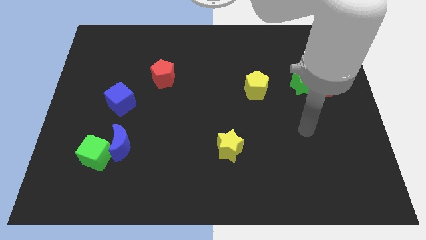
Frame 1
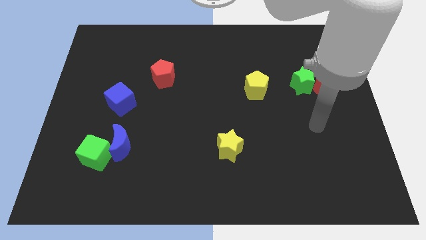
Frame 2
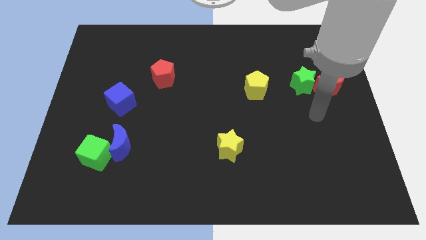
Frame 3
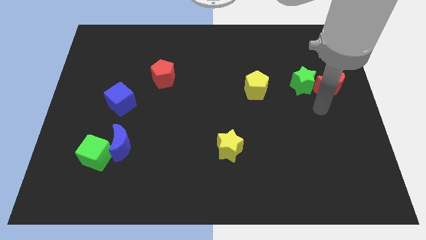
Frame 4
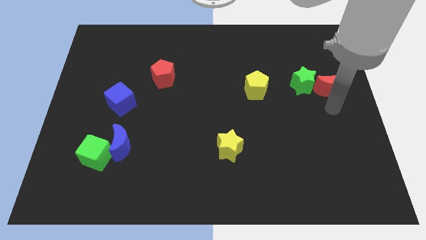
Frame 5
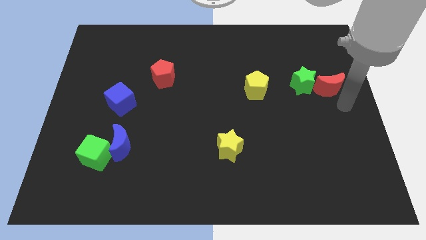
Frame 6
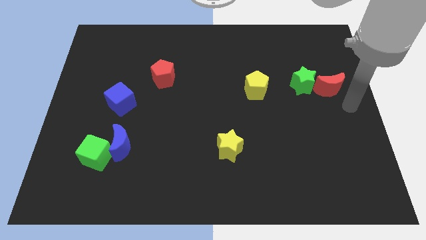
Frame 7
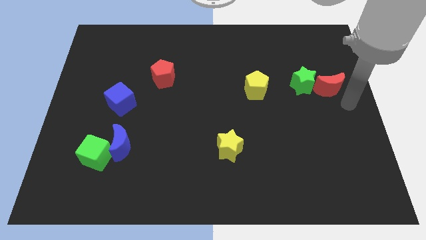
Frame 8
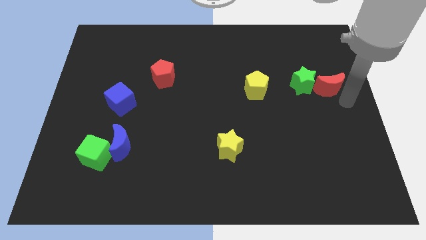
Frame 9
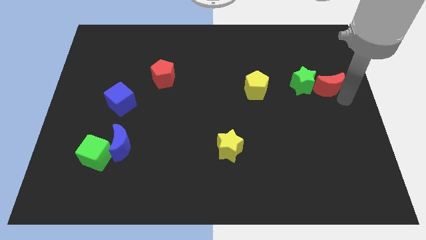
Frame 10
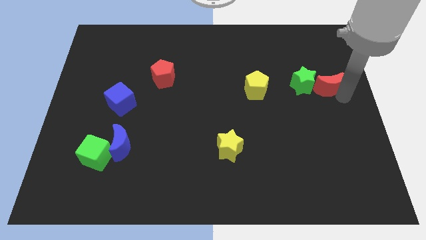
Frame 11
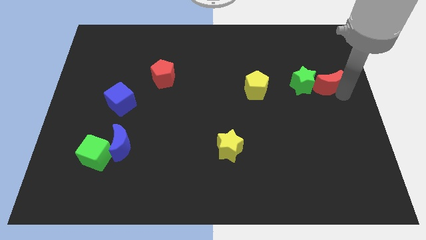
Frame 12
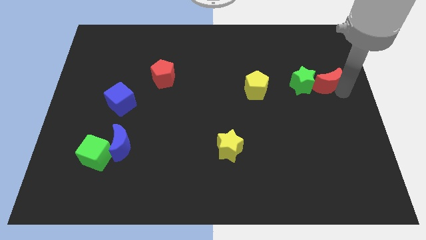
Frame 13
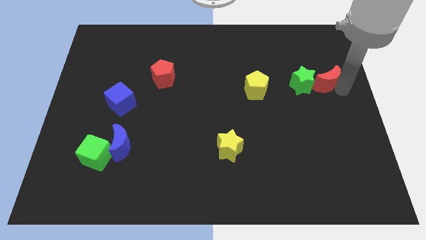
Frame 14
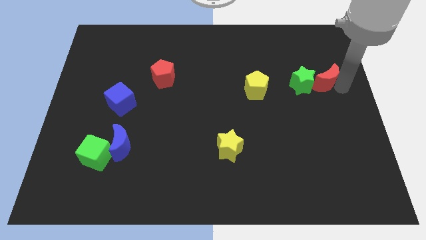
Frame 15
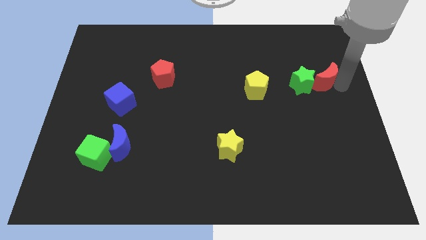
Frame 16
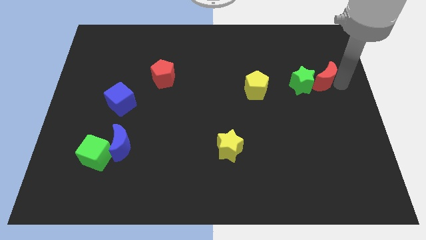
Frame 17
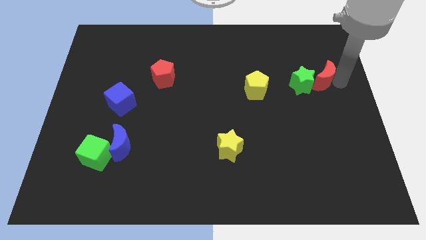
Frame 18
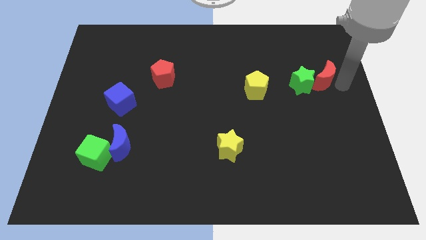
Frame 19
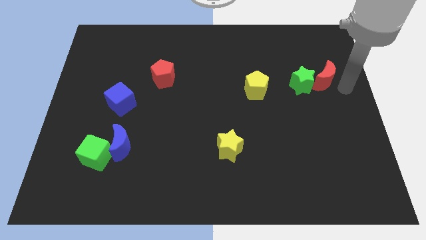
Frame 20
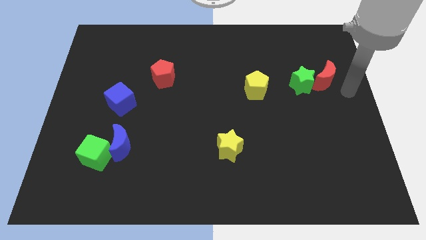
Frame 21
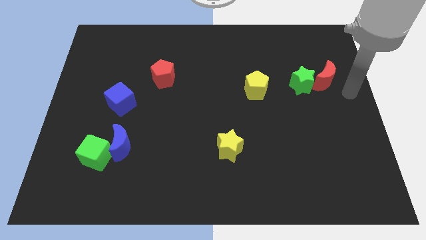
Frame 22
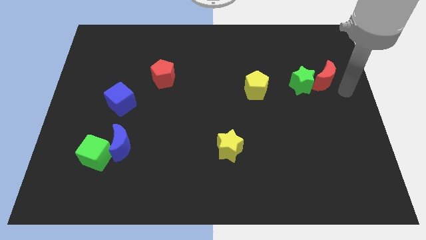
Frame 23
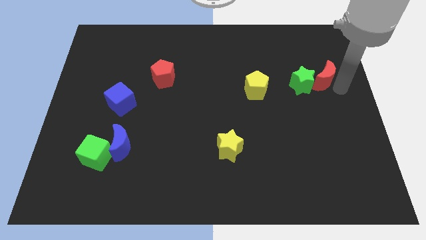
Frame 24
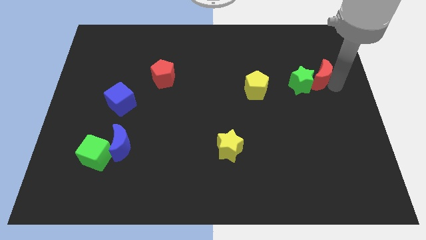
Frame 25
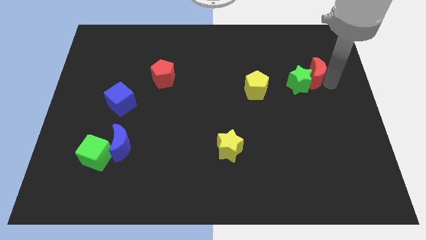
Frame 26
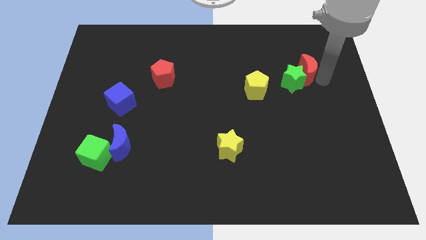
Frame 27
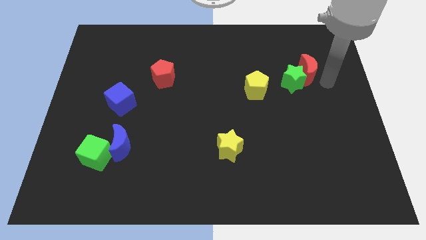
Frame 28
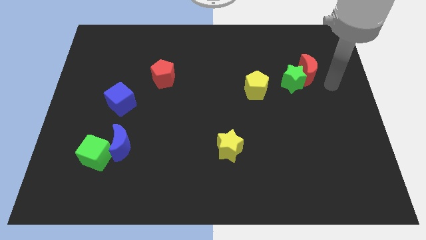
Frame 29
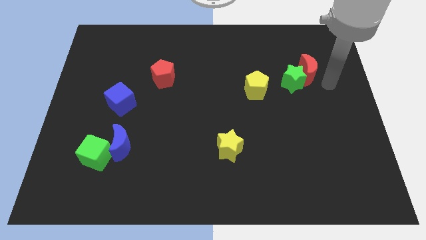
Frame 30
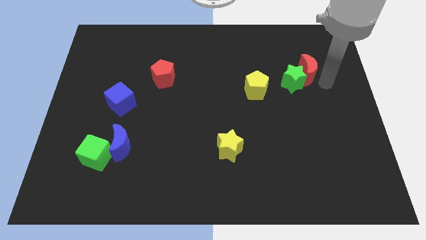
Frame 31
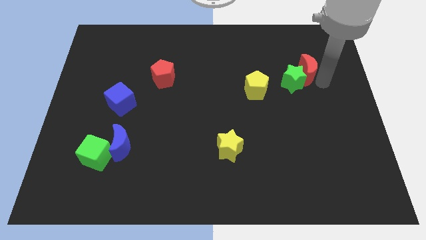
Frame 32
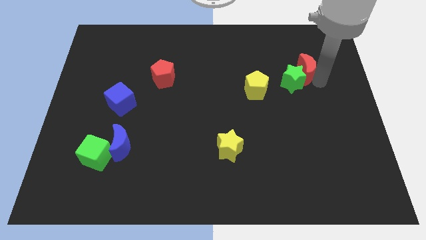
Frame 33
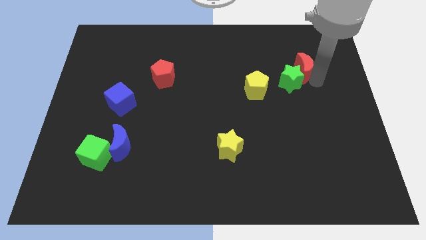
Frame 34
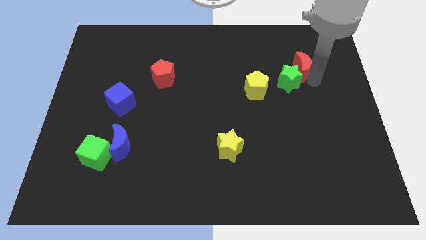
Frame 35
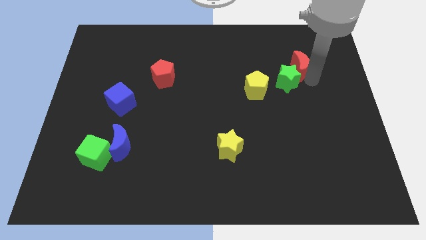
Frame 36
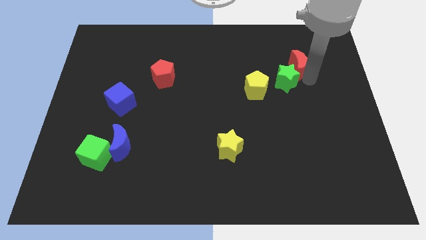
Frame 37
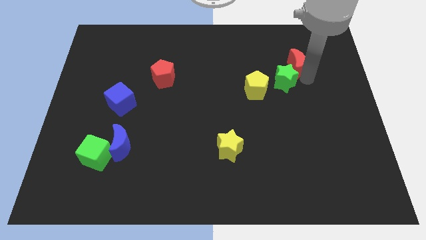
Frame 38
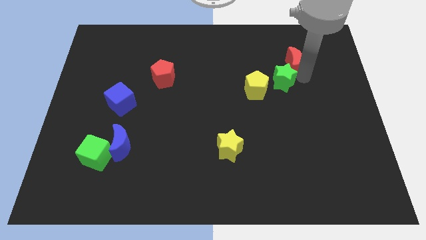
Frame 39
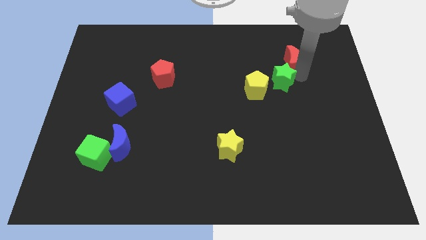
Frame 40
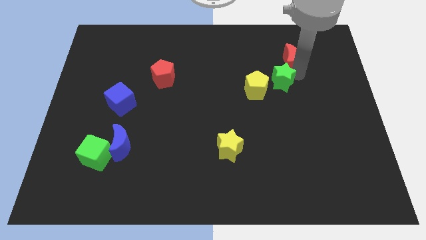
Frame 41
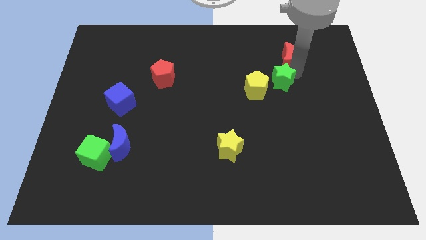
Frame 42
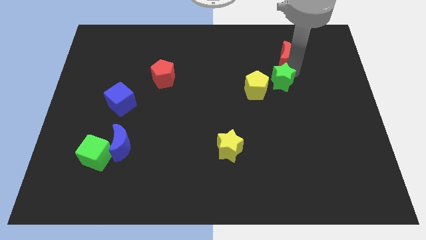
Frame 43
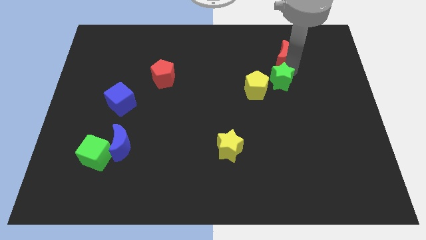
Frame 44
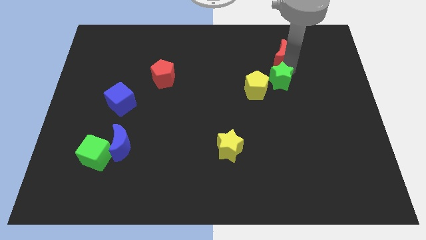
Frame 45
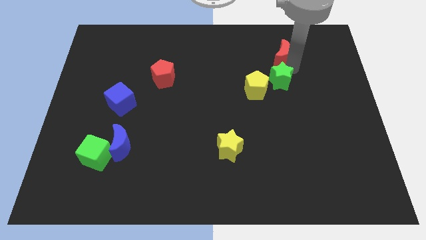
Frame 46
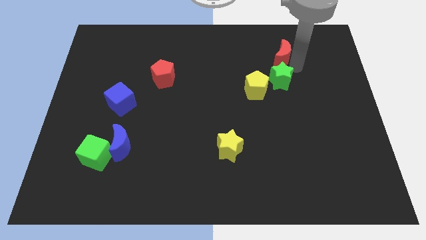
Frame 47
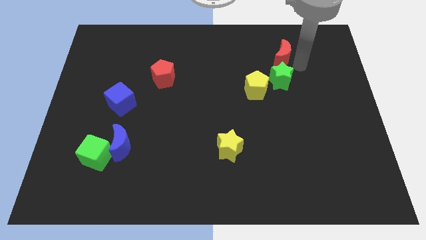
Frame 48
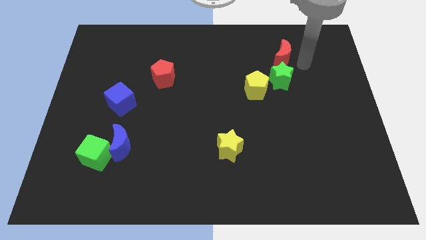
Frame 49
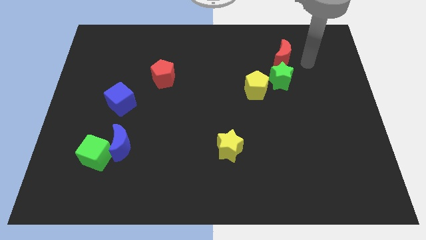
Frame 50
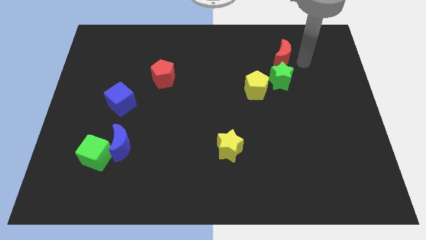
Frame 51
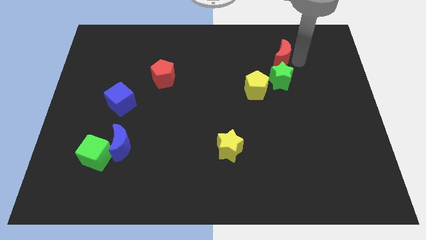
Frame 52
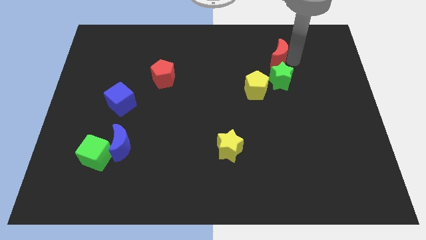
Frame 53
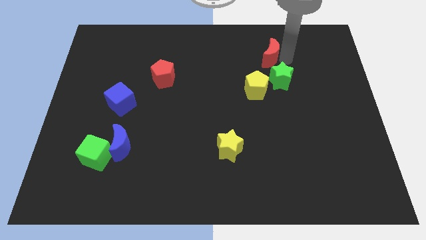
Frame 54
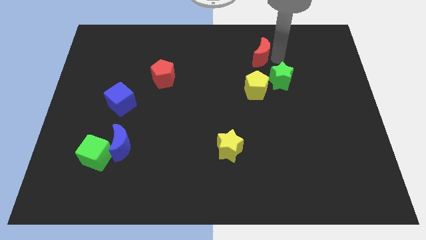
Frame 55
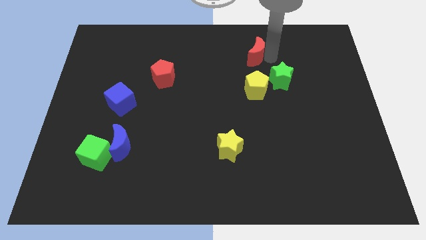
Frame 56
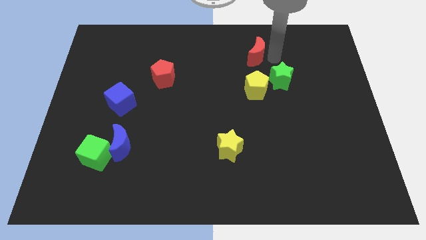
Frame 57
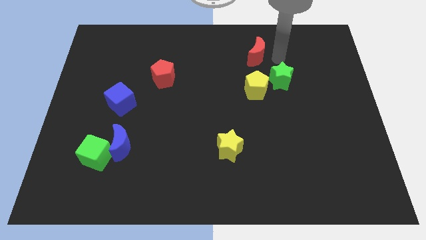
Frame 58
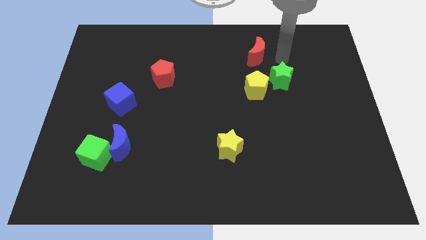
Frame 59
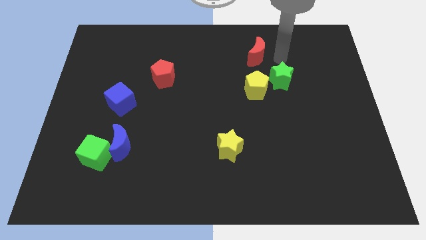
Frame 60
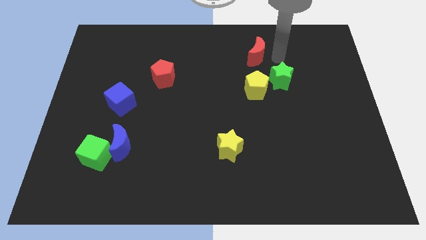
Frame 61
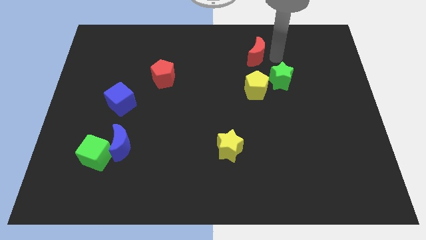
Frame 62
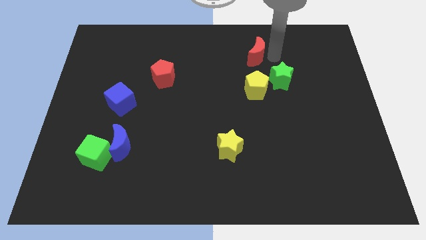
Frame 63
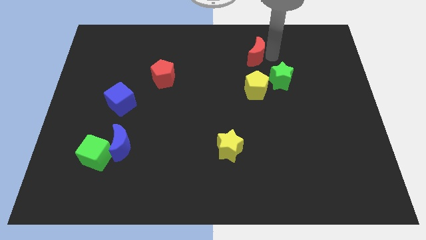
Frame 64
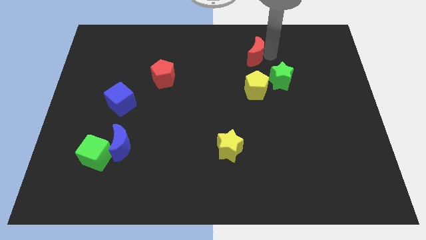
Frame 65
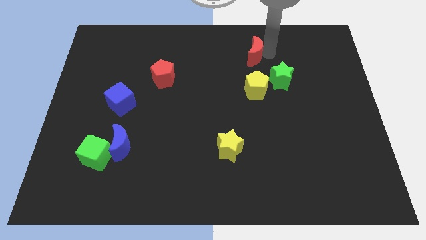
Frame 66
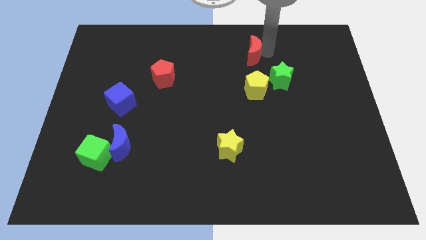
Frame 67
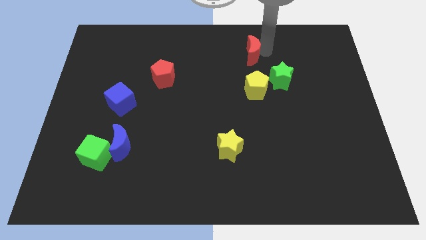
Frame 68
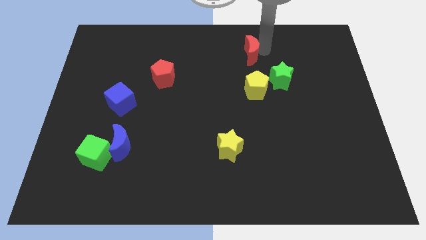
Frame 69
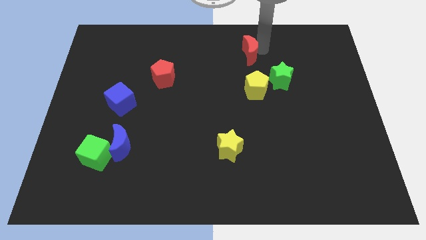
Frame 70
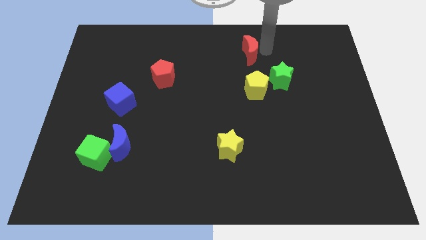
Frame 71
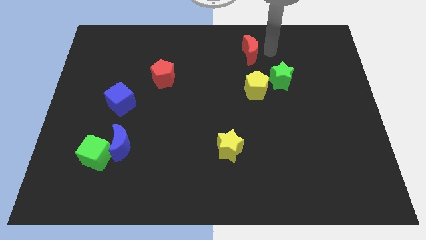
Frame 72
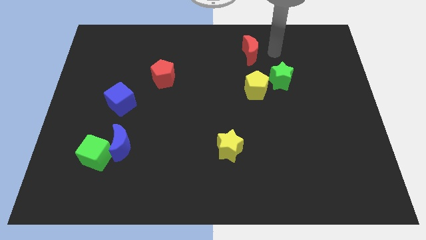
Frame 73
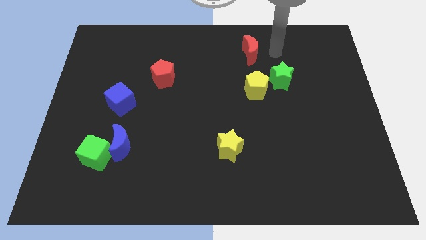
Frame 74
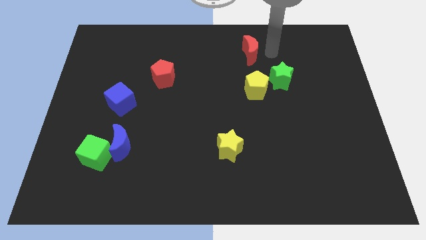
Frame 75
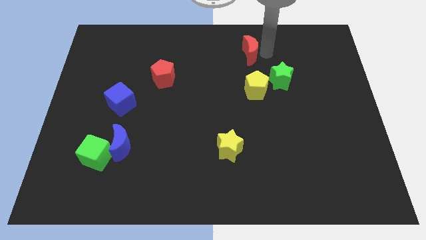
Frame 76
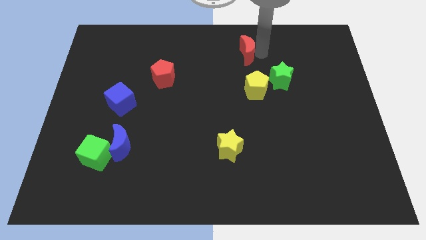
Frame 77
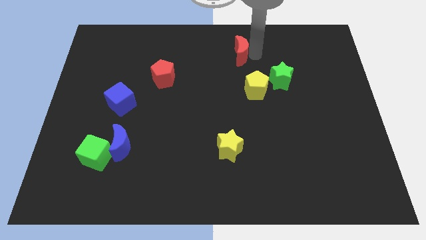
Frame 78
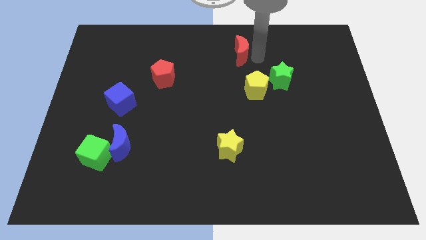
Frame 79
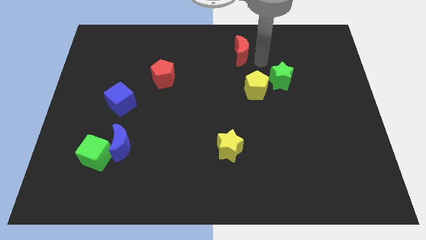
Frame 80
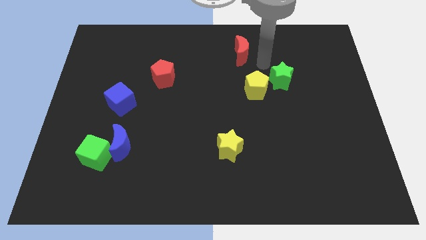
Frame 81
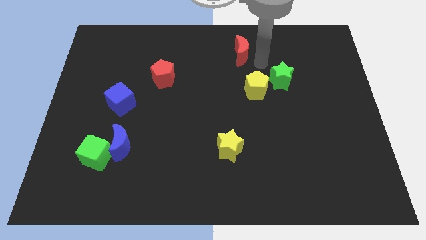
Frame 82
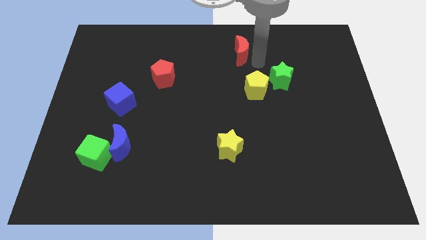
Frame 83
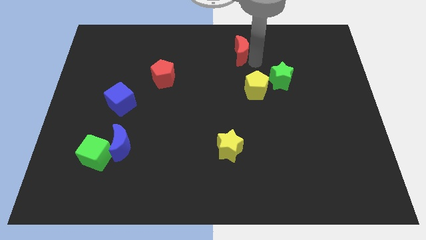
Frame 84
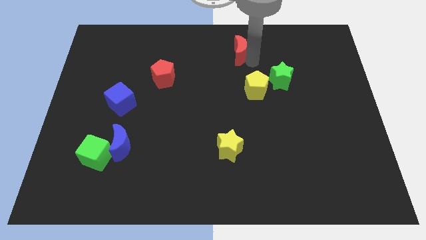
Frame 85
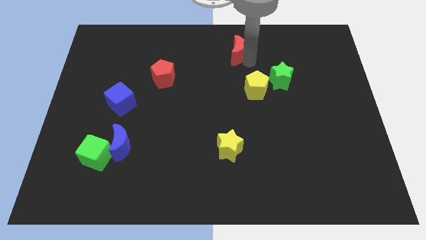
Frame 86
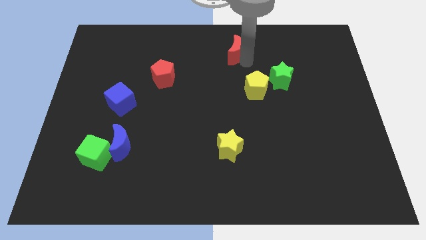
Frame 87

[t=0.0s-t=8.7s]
put the red moon to the towards your base
